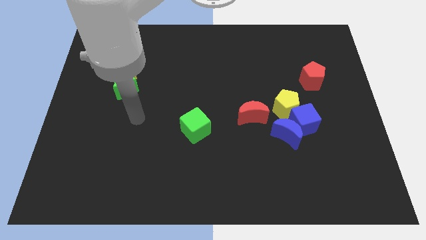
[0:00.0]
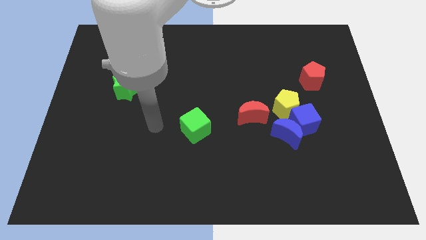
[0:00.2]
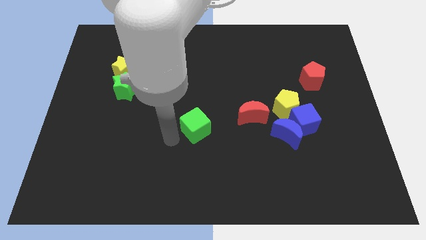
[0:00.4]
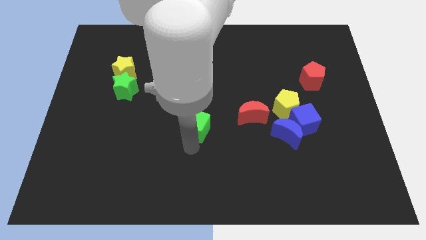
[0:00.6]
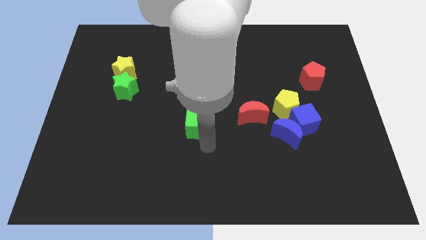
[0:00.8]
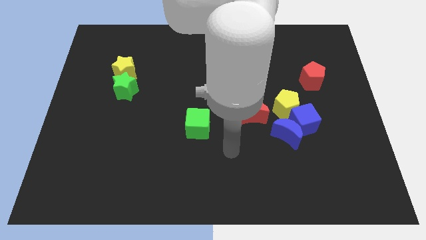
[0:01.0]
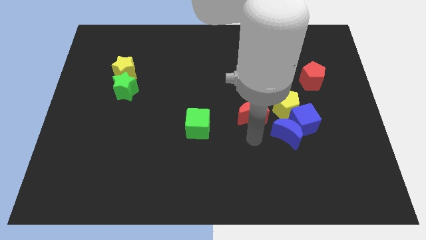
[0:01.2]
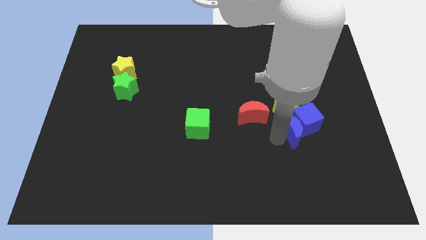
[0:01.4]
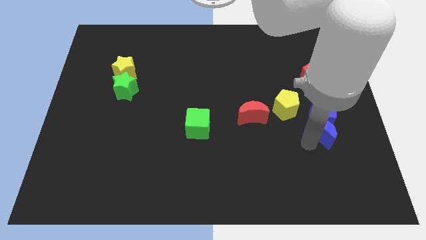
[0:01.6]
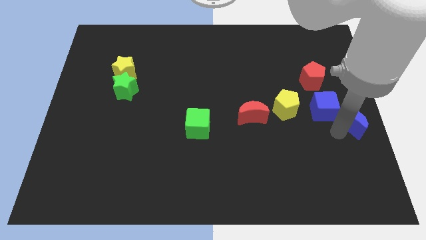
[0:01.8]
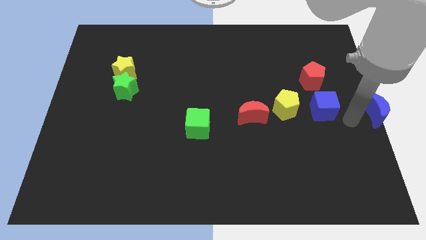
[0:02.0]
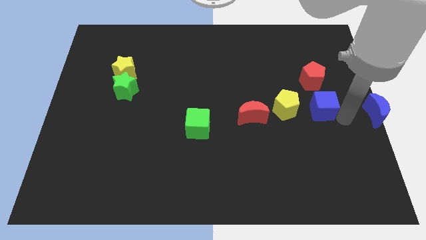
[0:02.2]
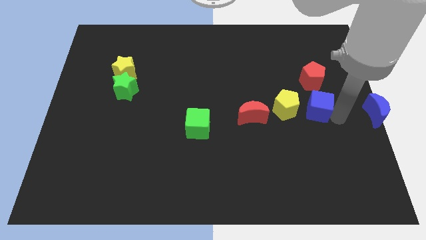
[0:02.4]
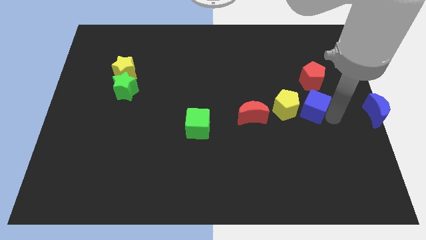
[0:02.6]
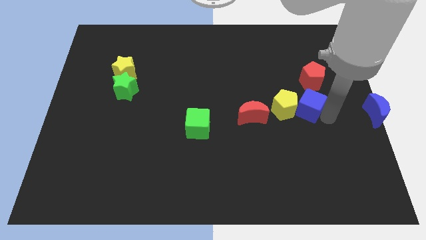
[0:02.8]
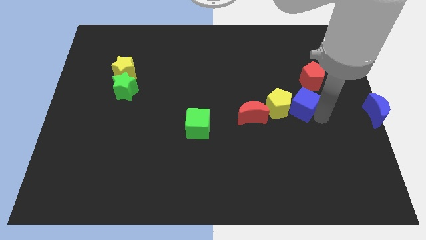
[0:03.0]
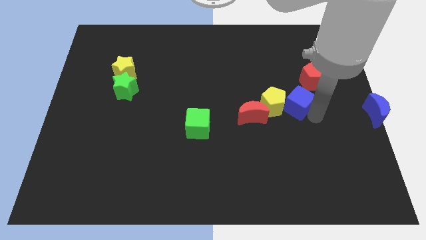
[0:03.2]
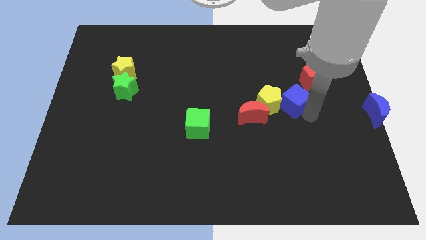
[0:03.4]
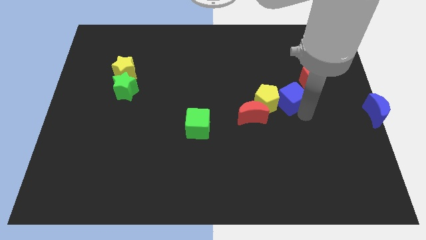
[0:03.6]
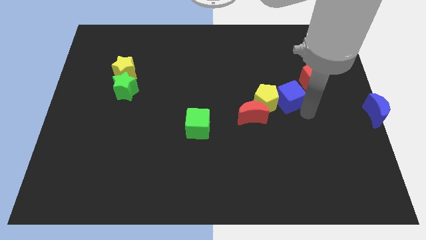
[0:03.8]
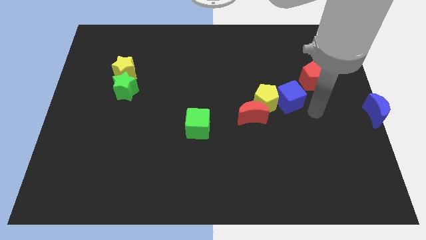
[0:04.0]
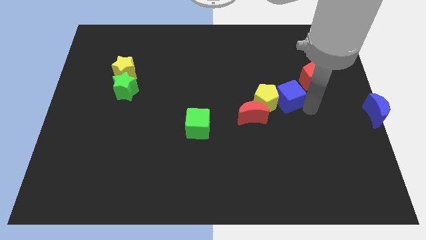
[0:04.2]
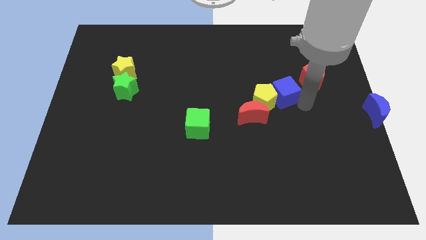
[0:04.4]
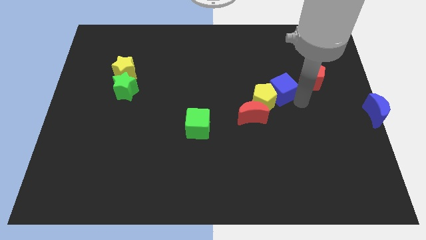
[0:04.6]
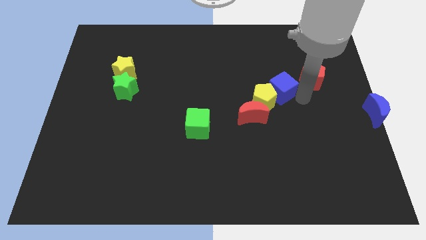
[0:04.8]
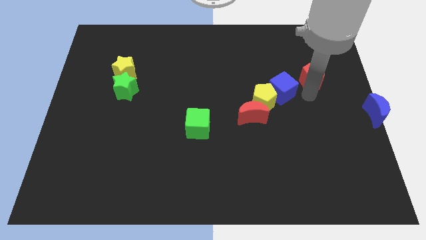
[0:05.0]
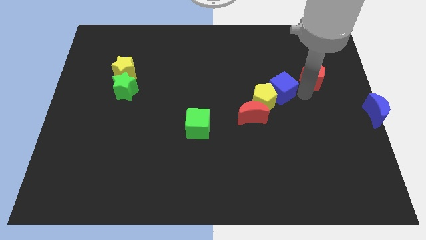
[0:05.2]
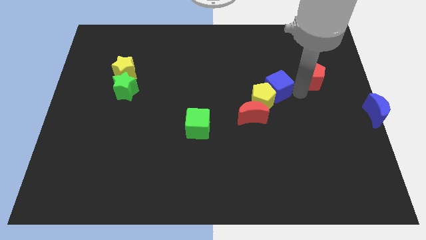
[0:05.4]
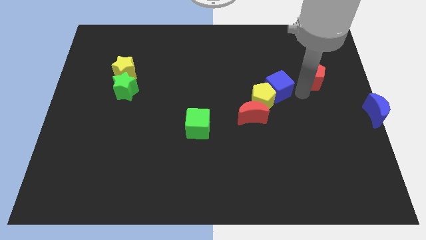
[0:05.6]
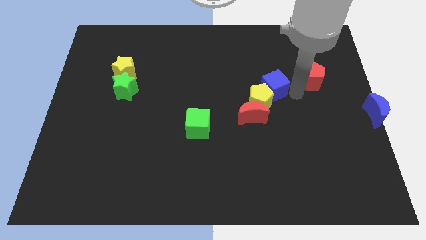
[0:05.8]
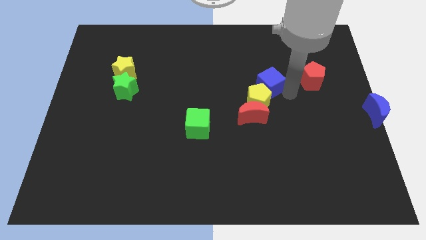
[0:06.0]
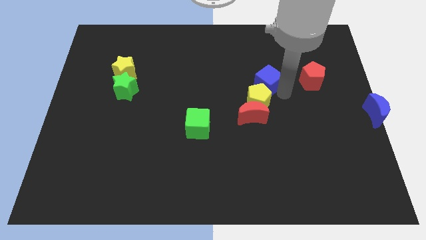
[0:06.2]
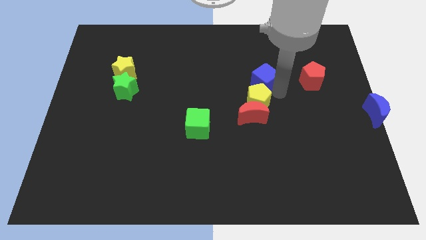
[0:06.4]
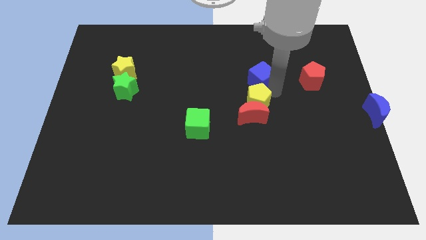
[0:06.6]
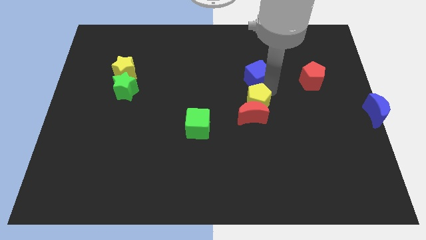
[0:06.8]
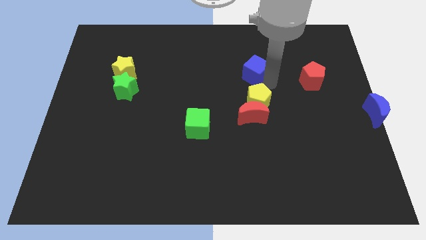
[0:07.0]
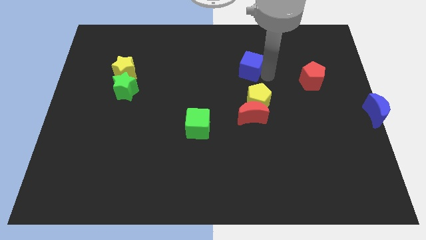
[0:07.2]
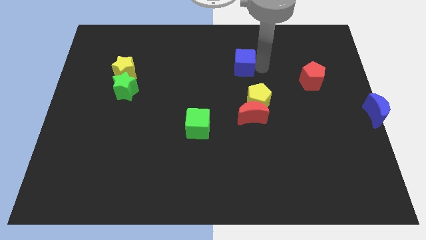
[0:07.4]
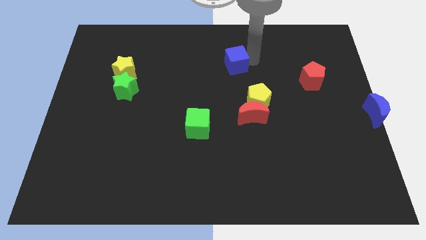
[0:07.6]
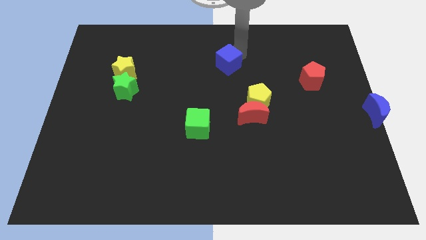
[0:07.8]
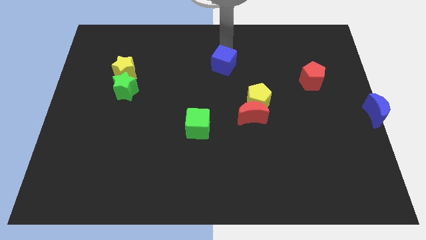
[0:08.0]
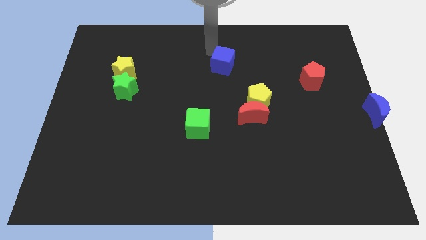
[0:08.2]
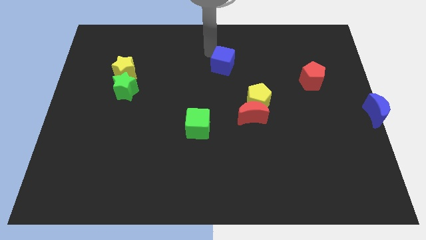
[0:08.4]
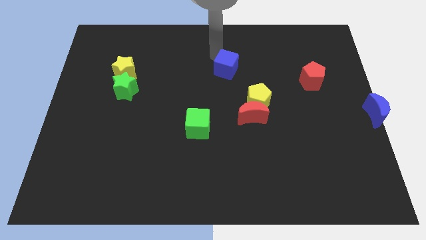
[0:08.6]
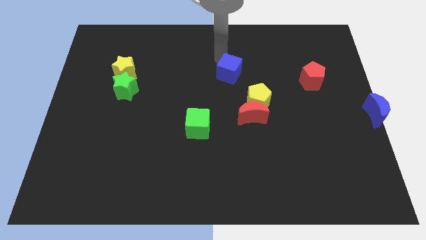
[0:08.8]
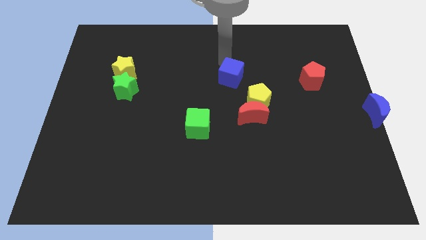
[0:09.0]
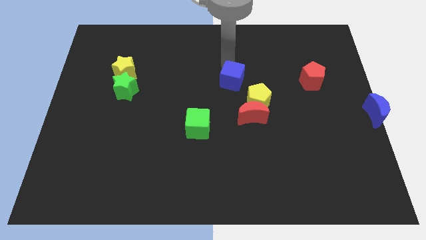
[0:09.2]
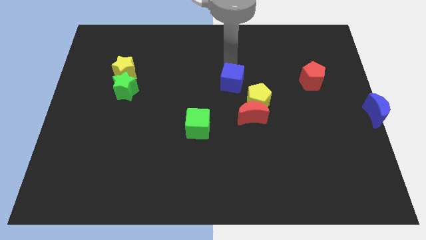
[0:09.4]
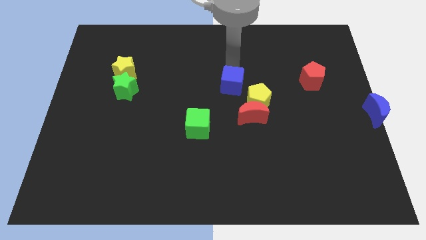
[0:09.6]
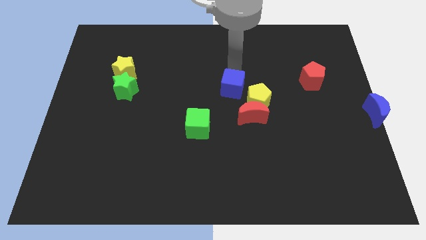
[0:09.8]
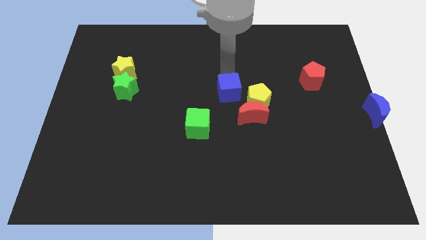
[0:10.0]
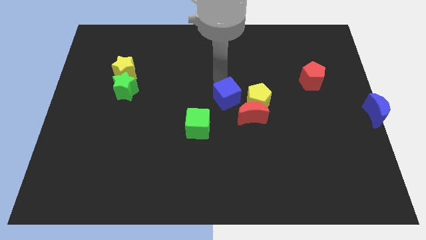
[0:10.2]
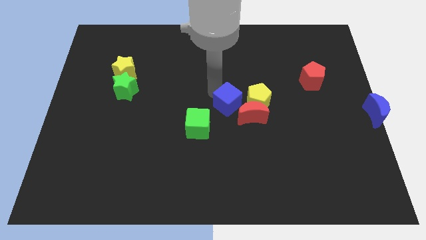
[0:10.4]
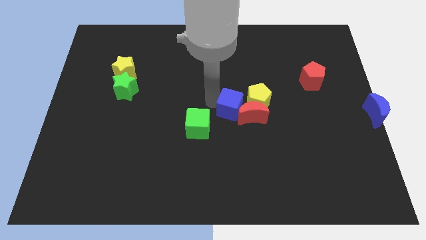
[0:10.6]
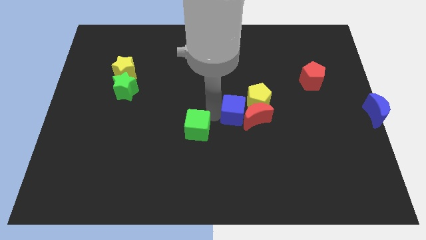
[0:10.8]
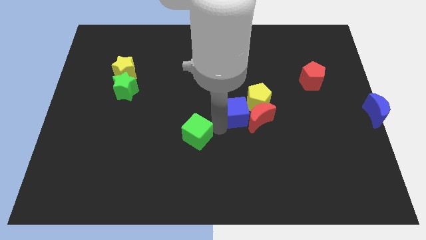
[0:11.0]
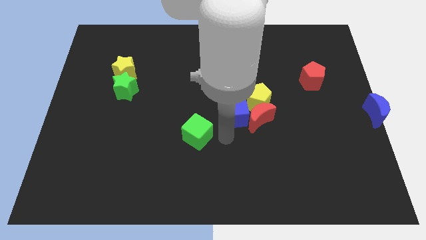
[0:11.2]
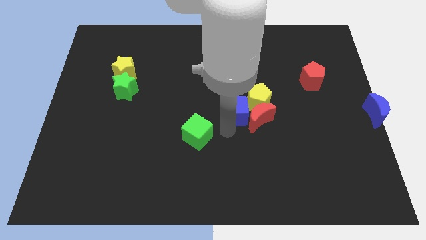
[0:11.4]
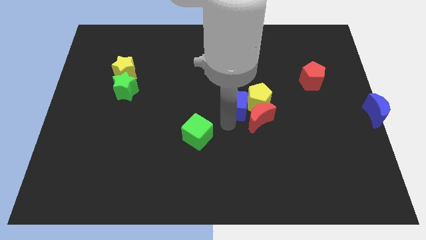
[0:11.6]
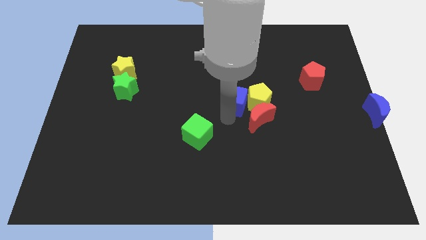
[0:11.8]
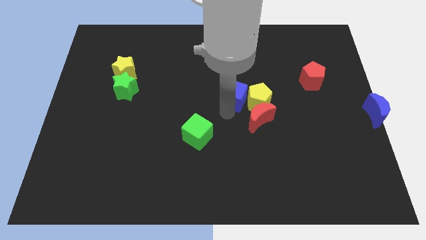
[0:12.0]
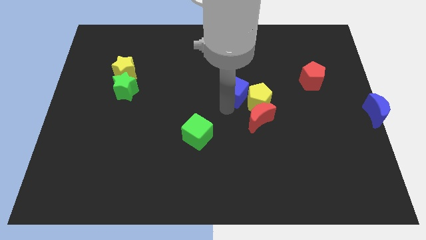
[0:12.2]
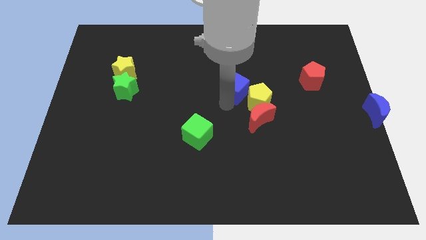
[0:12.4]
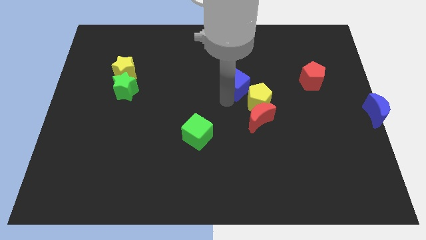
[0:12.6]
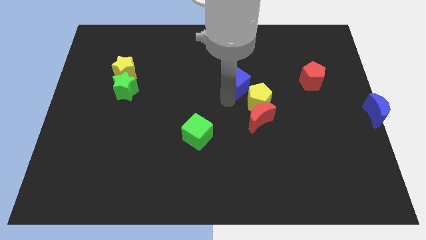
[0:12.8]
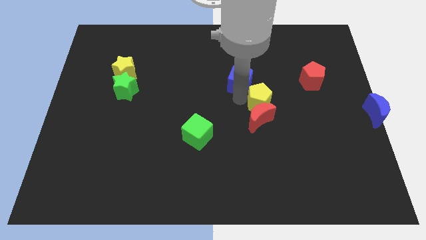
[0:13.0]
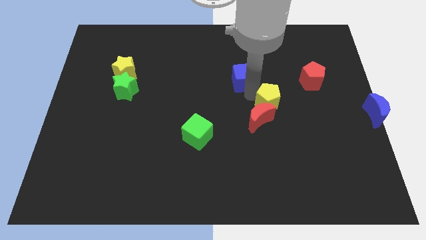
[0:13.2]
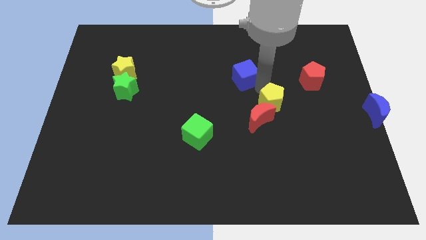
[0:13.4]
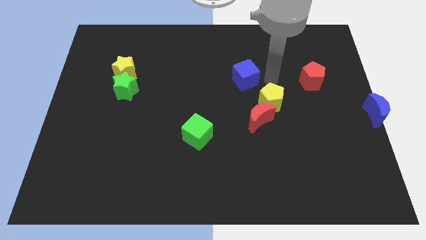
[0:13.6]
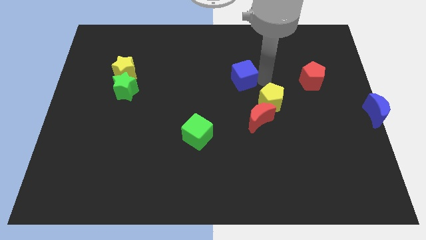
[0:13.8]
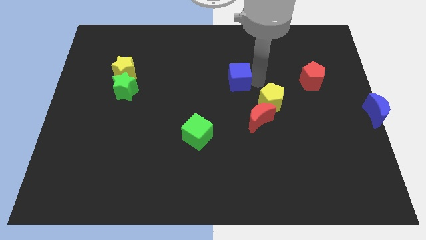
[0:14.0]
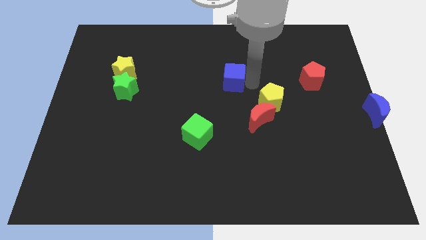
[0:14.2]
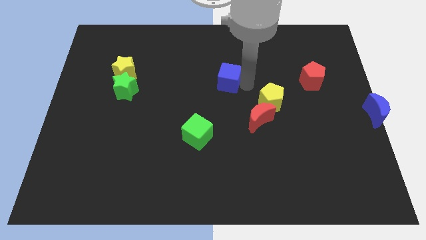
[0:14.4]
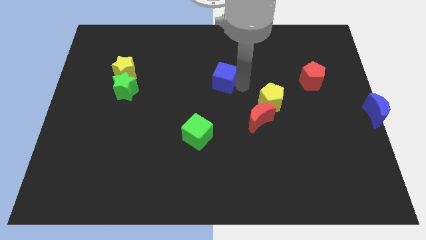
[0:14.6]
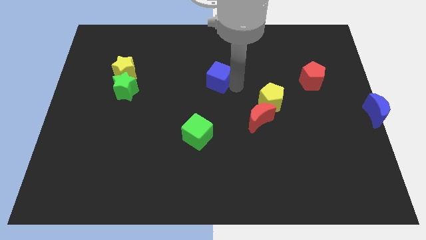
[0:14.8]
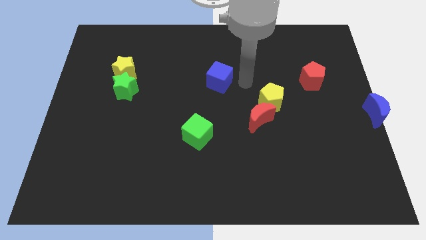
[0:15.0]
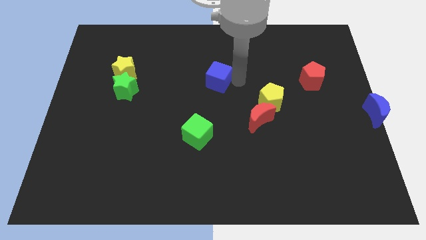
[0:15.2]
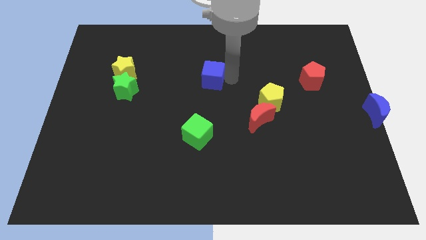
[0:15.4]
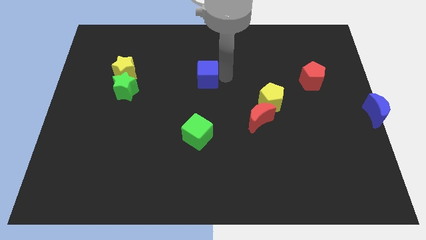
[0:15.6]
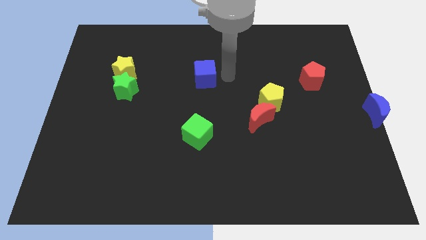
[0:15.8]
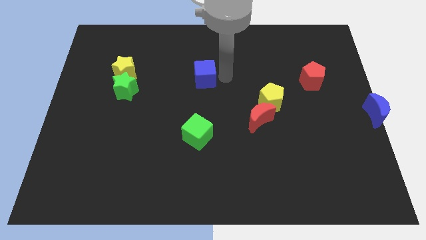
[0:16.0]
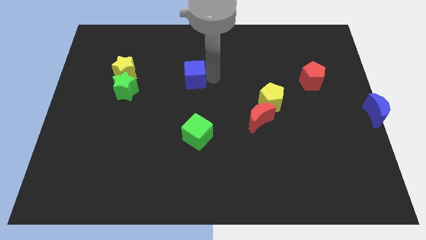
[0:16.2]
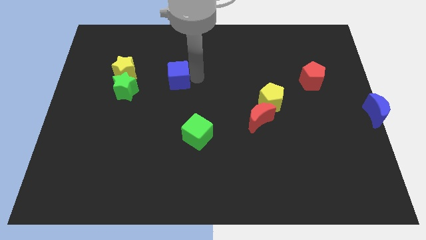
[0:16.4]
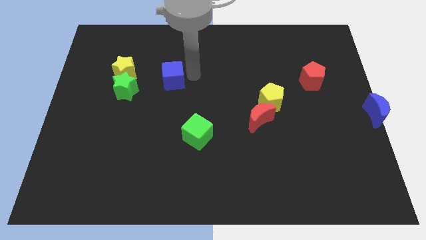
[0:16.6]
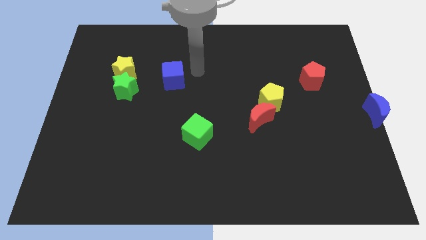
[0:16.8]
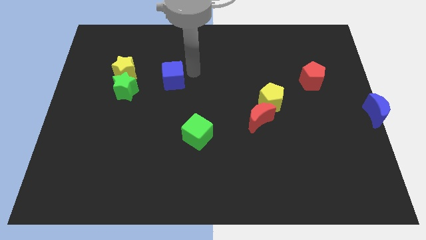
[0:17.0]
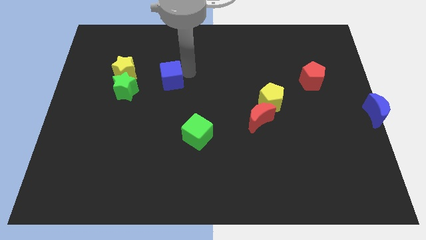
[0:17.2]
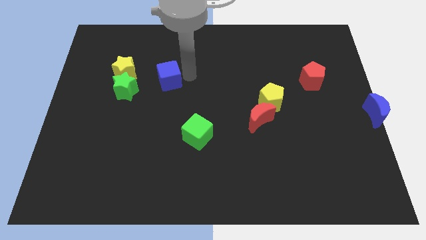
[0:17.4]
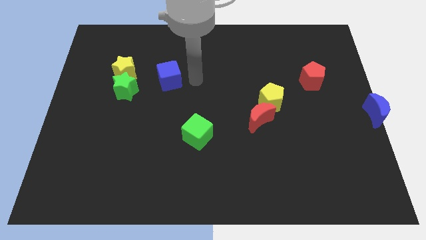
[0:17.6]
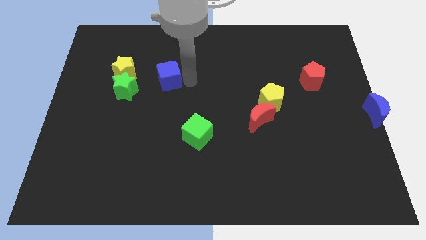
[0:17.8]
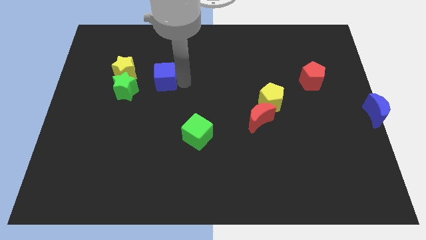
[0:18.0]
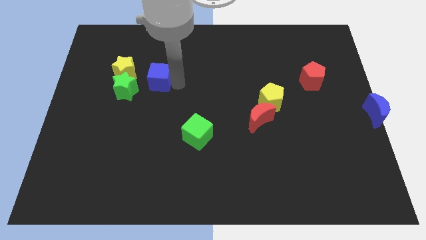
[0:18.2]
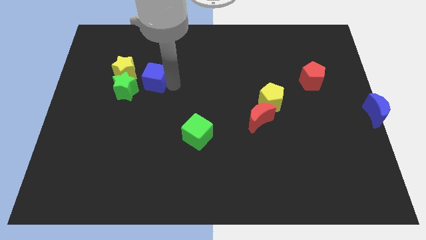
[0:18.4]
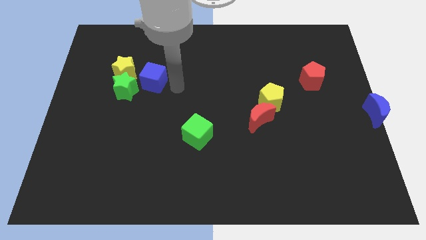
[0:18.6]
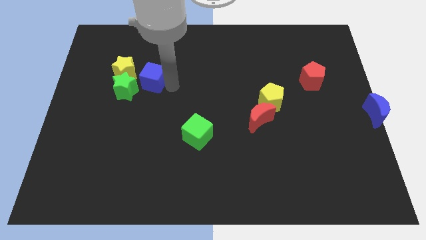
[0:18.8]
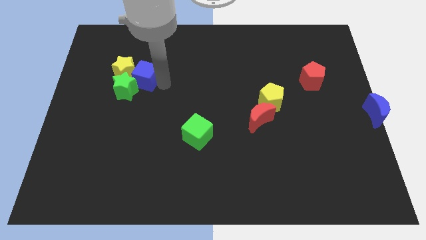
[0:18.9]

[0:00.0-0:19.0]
move the blue cube towards the yellow star
